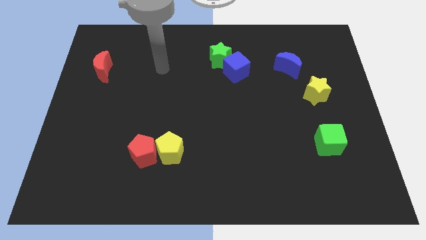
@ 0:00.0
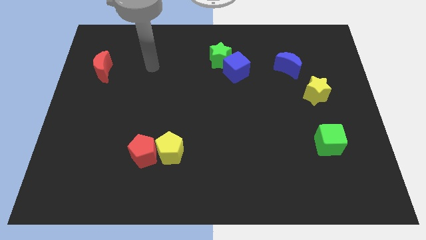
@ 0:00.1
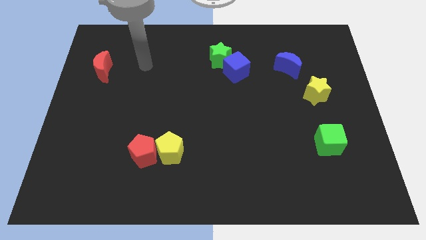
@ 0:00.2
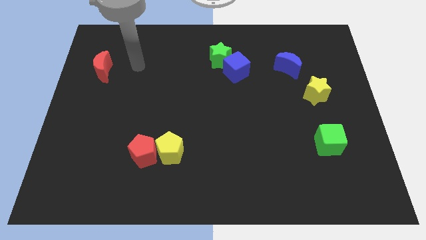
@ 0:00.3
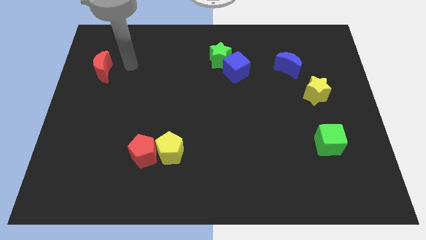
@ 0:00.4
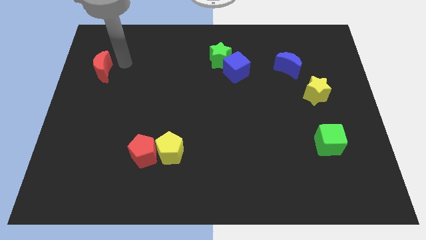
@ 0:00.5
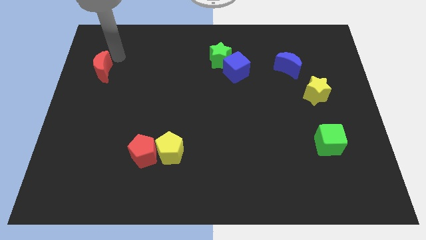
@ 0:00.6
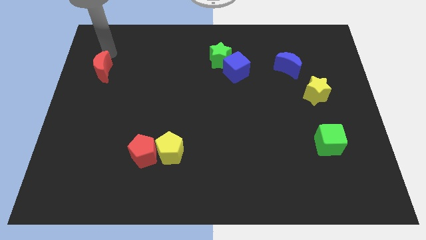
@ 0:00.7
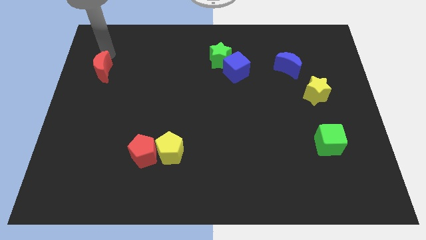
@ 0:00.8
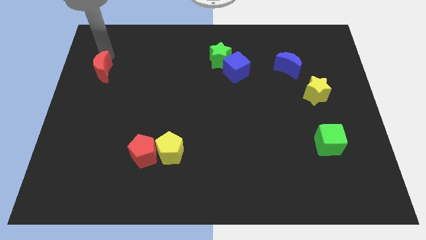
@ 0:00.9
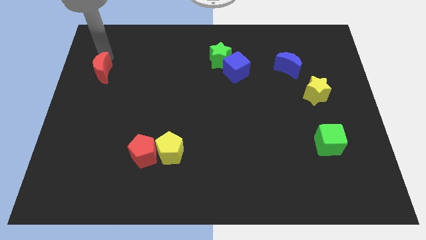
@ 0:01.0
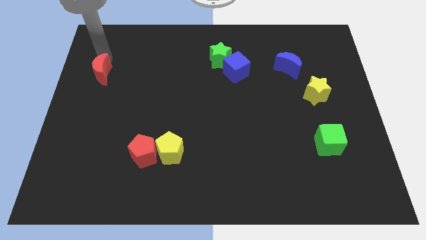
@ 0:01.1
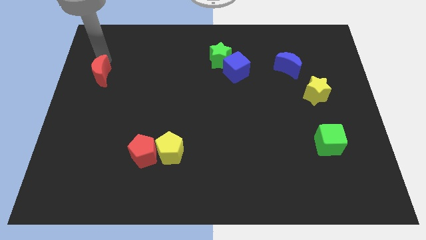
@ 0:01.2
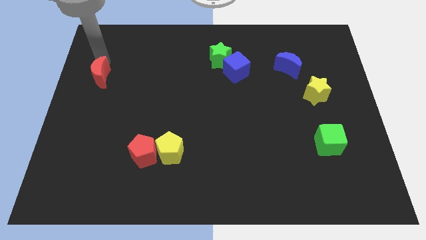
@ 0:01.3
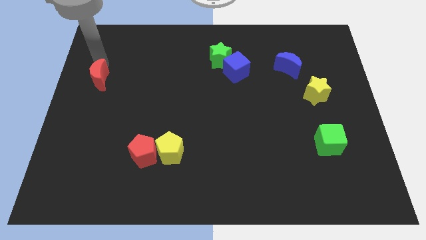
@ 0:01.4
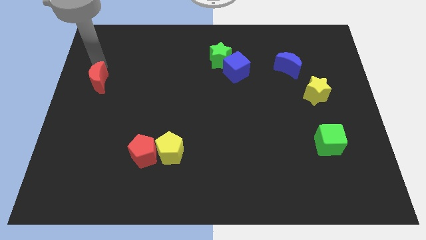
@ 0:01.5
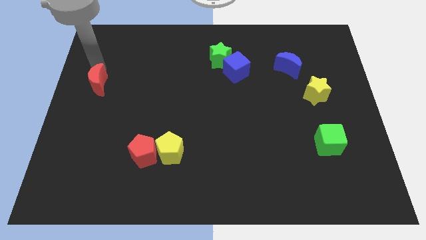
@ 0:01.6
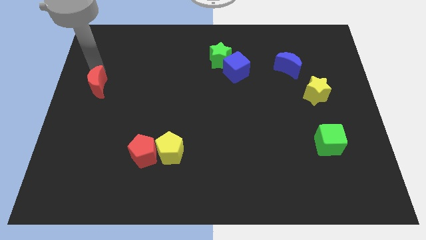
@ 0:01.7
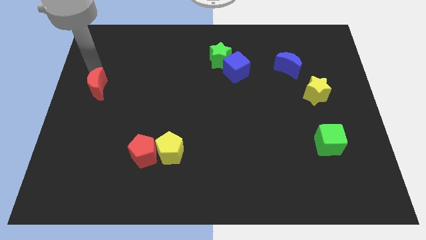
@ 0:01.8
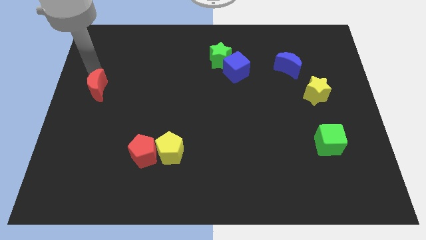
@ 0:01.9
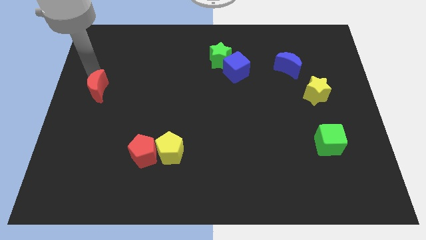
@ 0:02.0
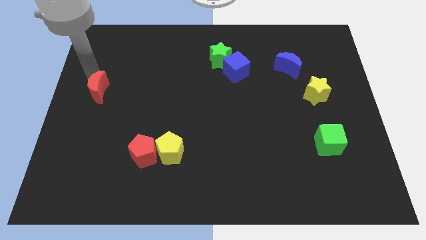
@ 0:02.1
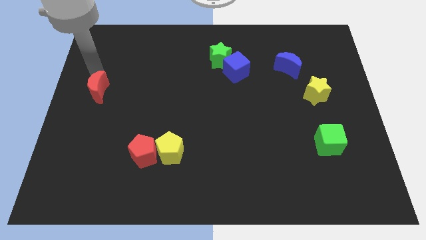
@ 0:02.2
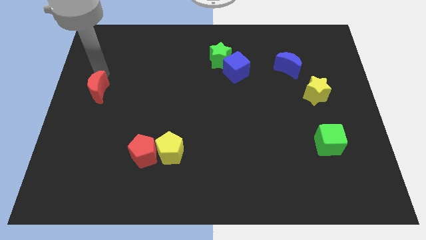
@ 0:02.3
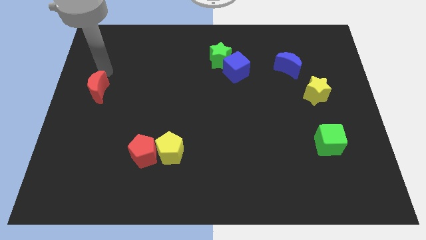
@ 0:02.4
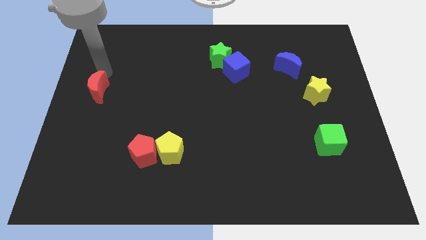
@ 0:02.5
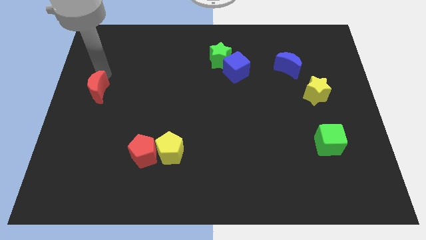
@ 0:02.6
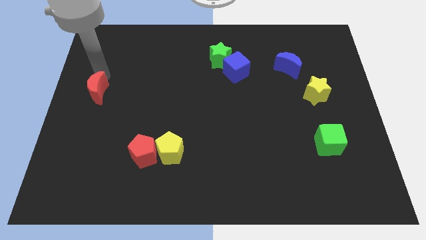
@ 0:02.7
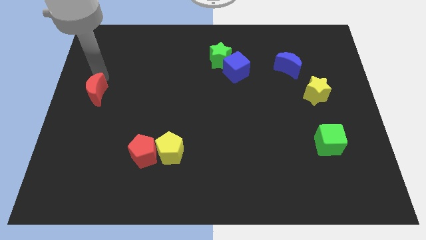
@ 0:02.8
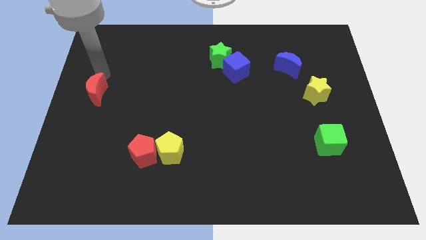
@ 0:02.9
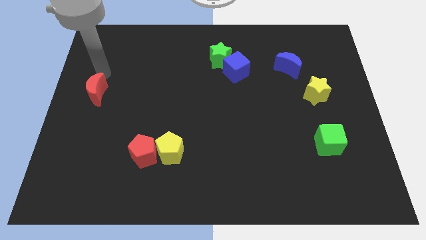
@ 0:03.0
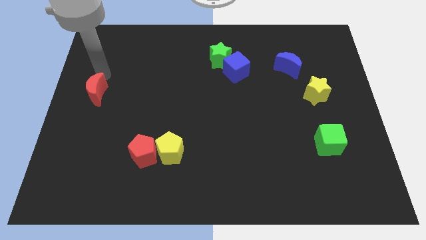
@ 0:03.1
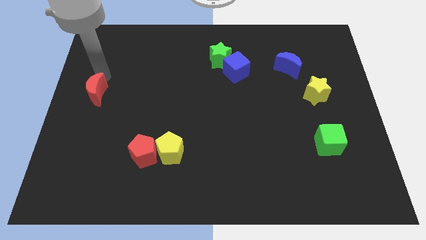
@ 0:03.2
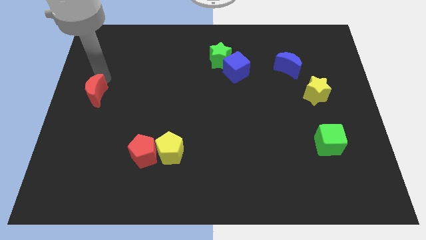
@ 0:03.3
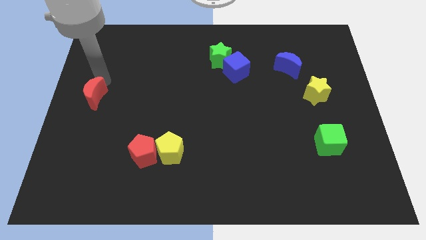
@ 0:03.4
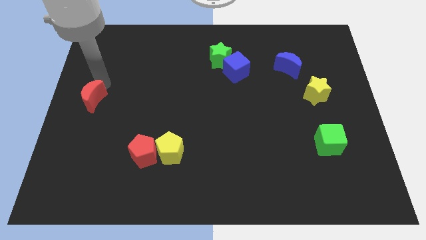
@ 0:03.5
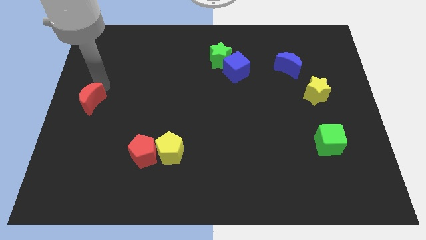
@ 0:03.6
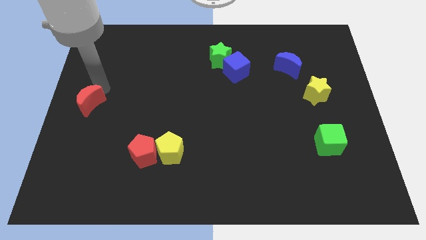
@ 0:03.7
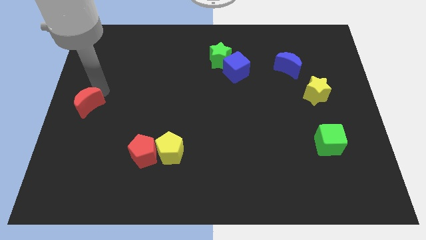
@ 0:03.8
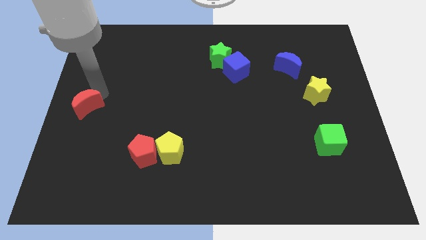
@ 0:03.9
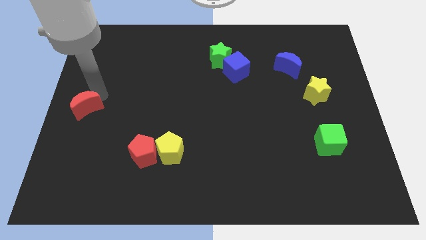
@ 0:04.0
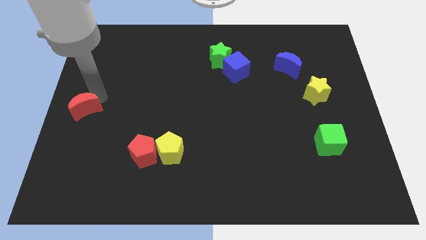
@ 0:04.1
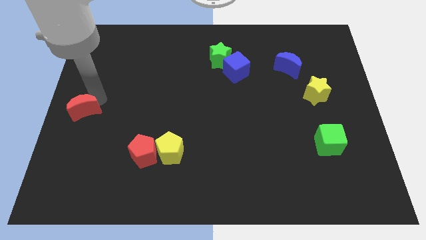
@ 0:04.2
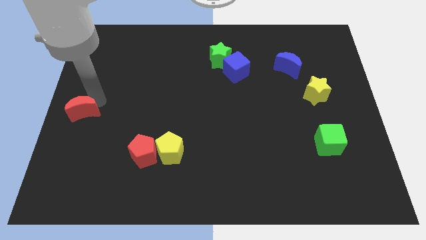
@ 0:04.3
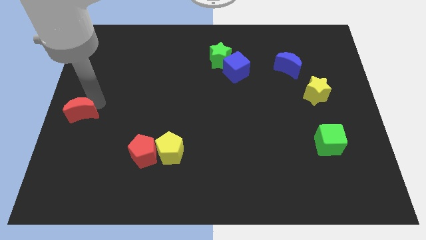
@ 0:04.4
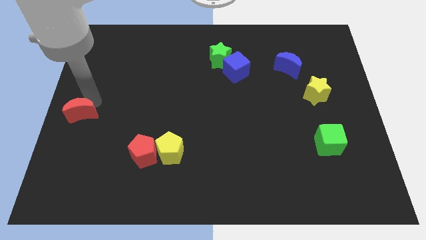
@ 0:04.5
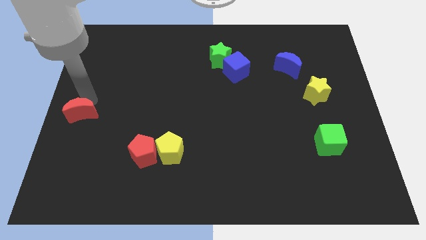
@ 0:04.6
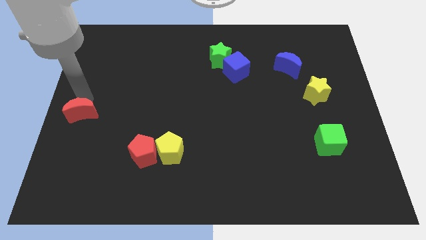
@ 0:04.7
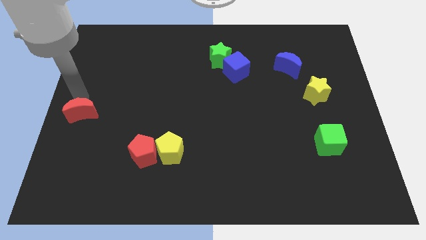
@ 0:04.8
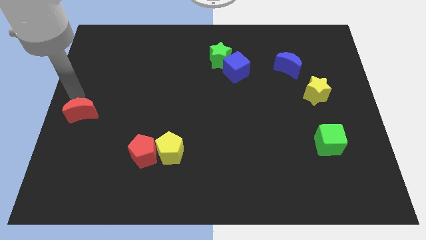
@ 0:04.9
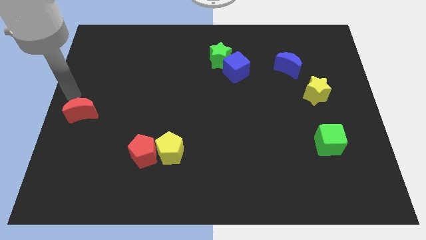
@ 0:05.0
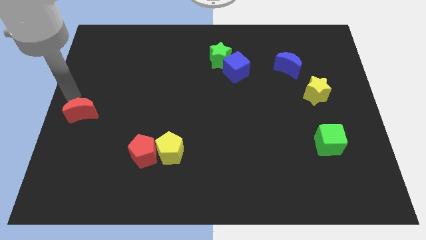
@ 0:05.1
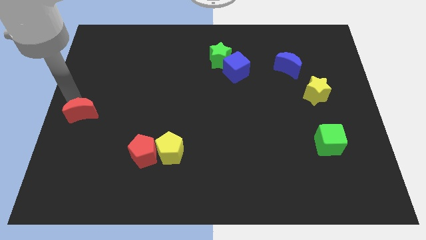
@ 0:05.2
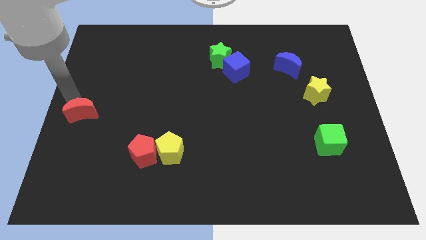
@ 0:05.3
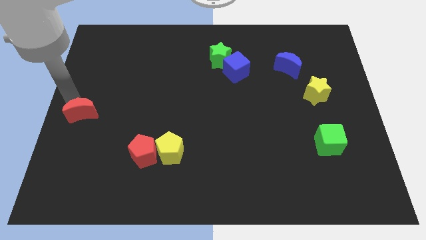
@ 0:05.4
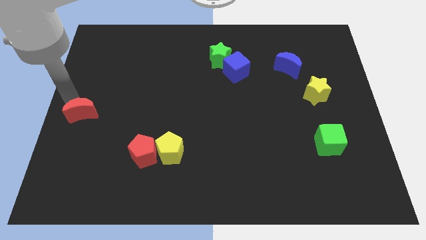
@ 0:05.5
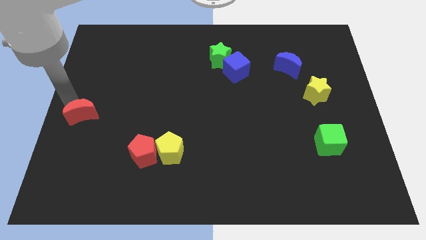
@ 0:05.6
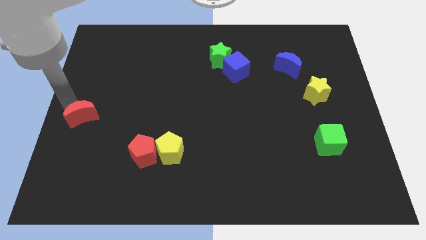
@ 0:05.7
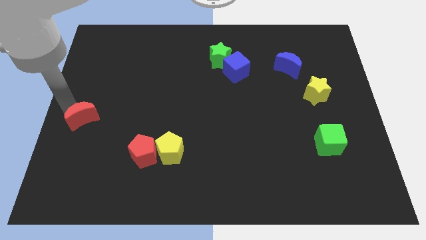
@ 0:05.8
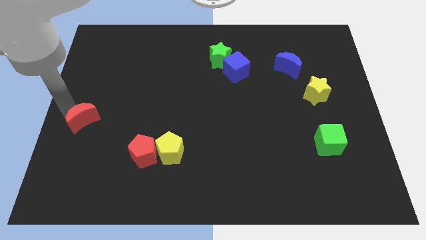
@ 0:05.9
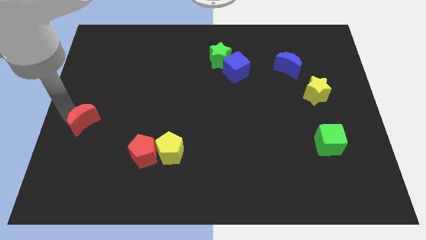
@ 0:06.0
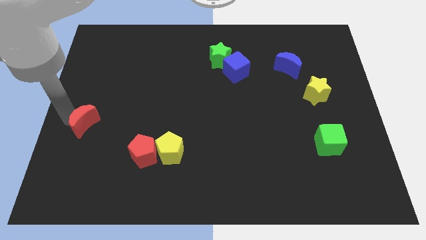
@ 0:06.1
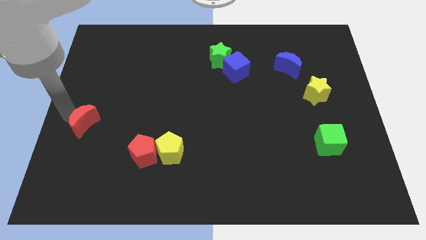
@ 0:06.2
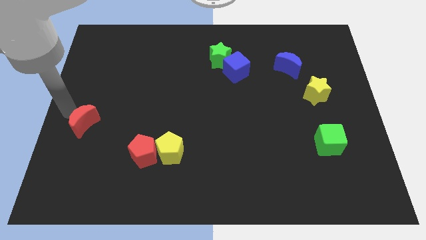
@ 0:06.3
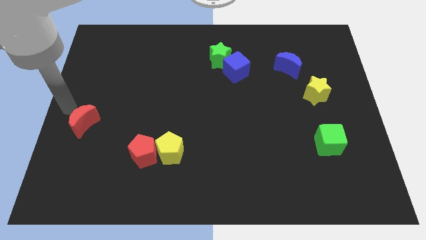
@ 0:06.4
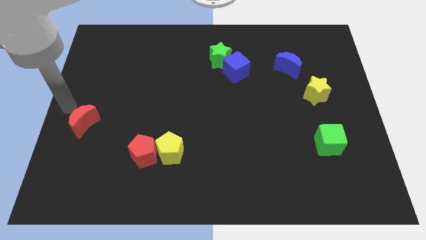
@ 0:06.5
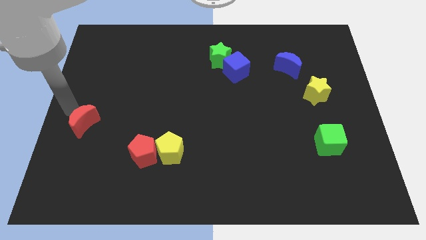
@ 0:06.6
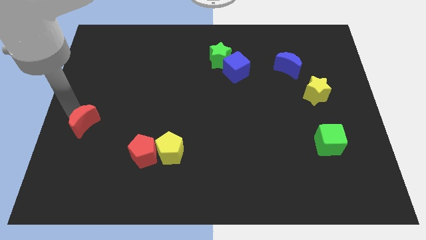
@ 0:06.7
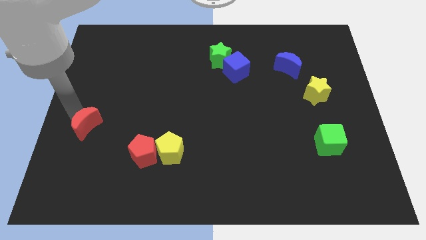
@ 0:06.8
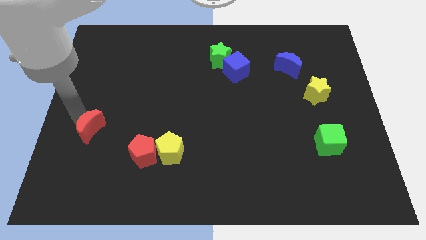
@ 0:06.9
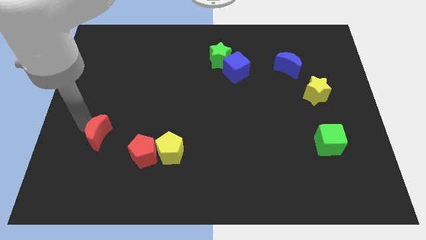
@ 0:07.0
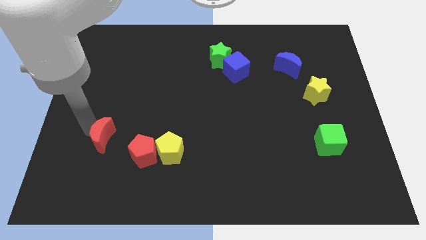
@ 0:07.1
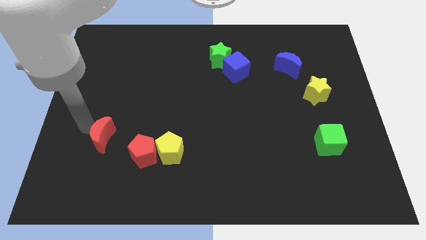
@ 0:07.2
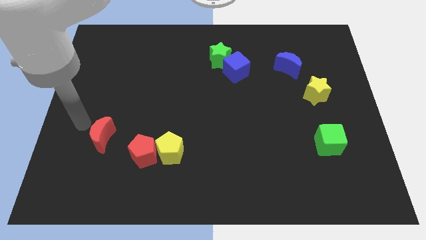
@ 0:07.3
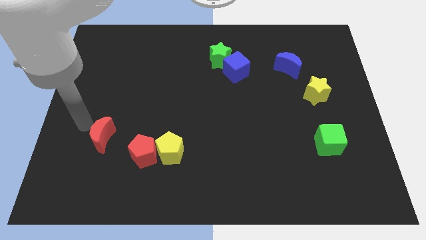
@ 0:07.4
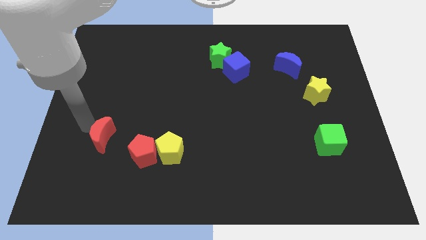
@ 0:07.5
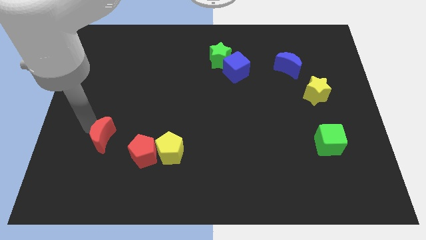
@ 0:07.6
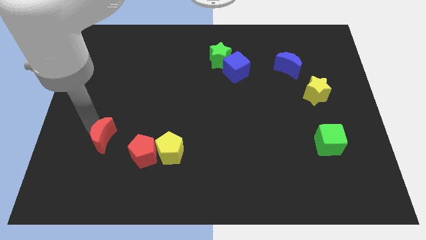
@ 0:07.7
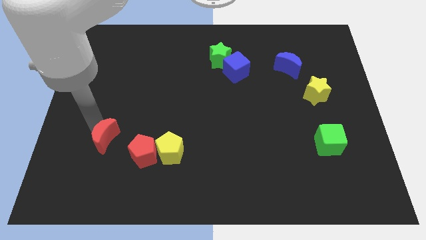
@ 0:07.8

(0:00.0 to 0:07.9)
put the red moon left of the yellow pentagon
